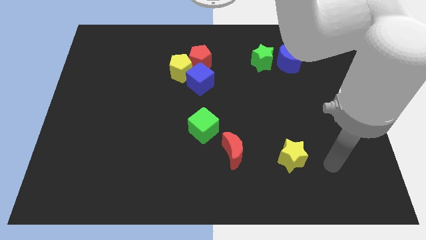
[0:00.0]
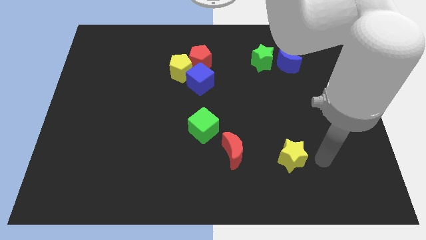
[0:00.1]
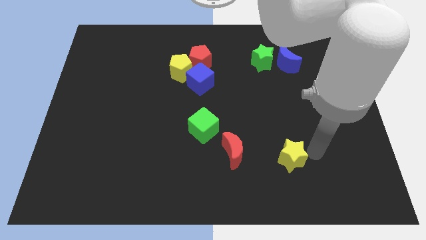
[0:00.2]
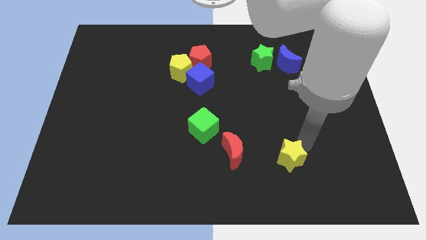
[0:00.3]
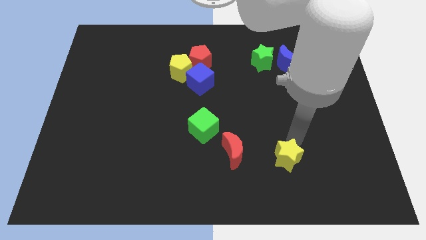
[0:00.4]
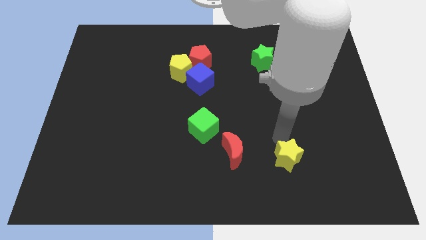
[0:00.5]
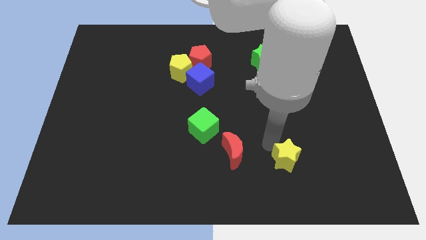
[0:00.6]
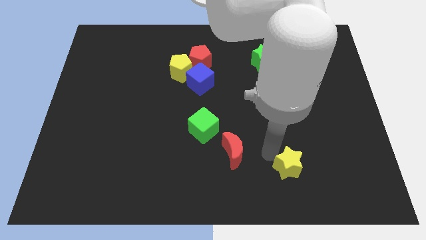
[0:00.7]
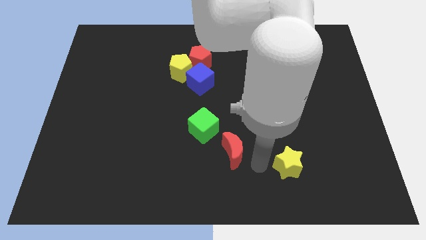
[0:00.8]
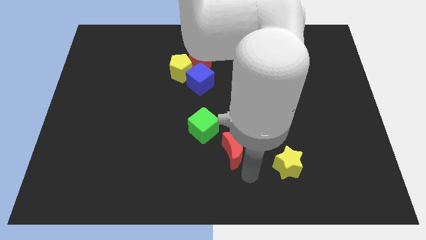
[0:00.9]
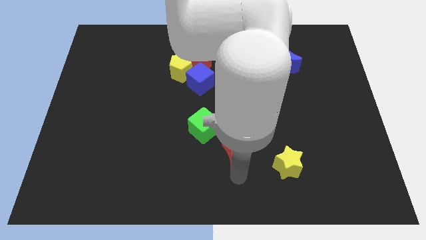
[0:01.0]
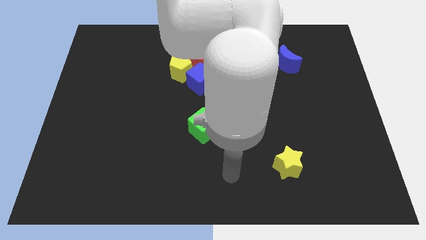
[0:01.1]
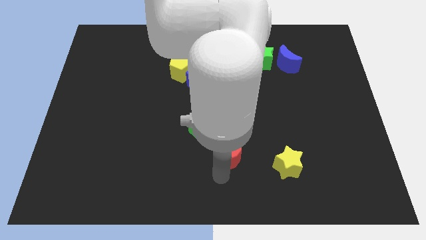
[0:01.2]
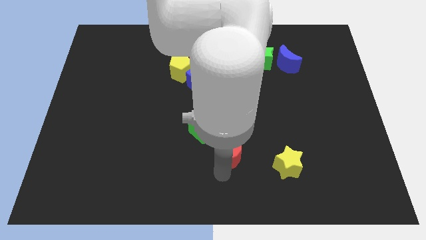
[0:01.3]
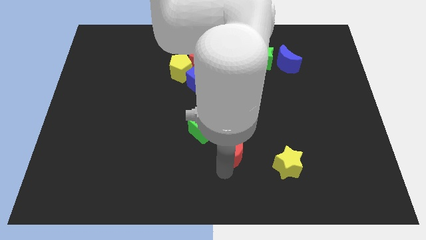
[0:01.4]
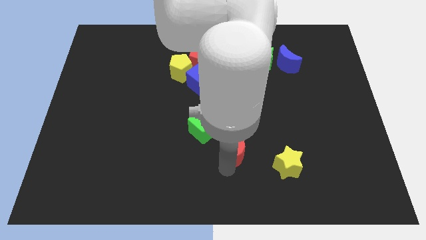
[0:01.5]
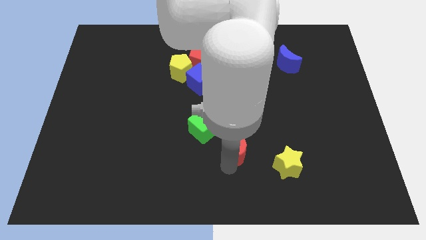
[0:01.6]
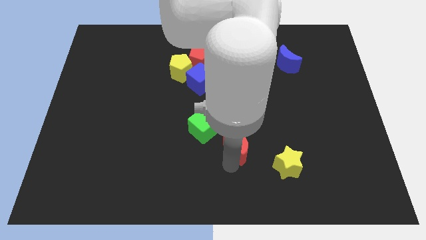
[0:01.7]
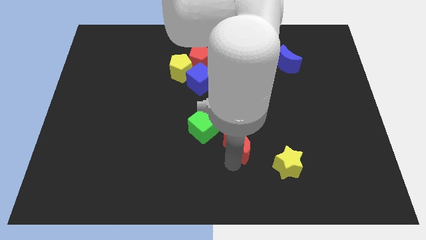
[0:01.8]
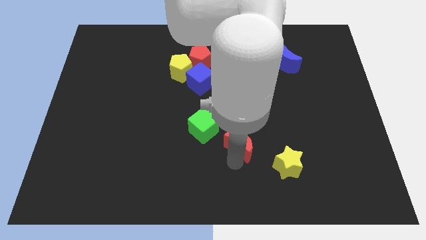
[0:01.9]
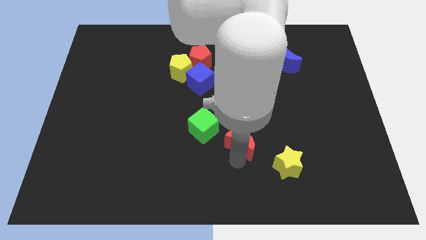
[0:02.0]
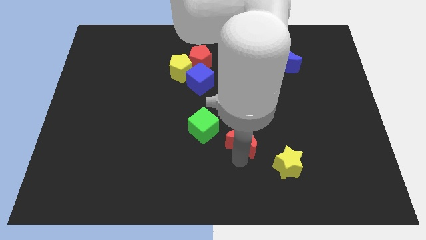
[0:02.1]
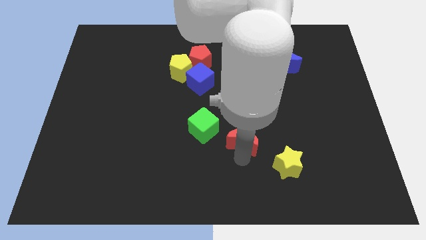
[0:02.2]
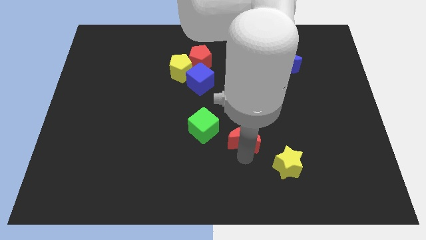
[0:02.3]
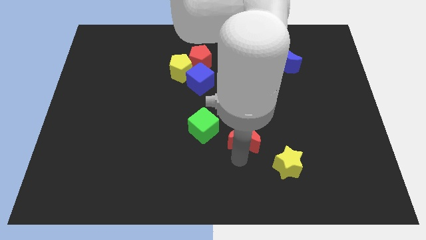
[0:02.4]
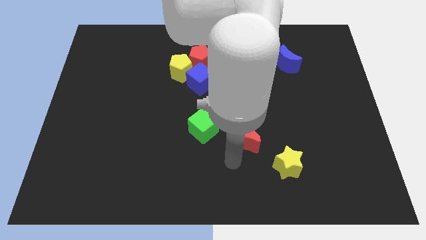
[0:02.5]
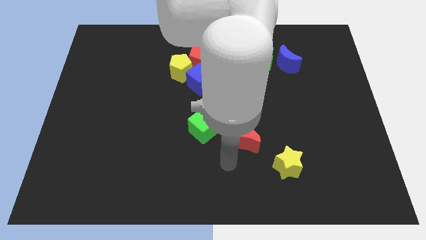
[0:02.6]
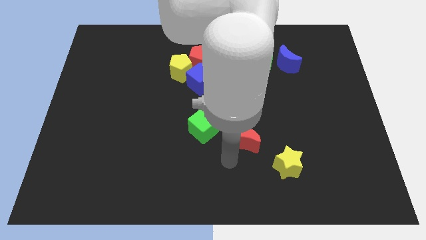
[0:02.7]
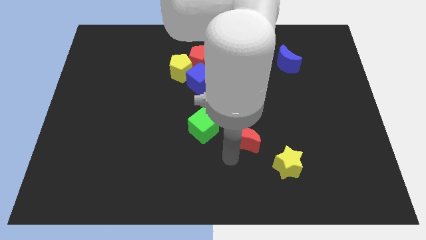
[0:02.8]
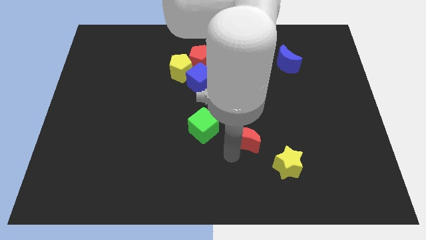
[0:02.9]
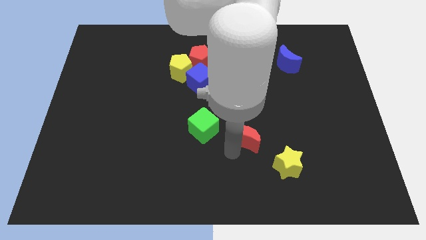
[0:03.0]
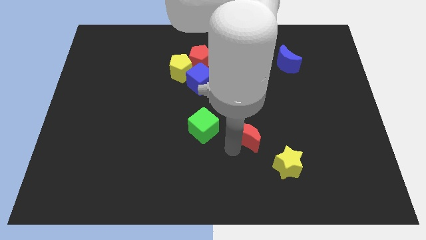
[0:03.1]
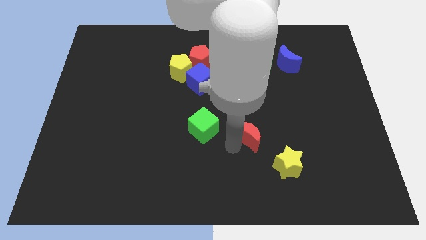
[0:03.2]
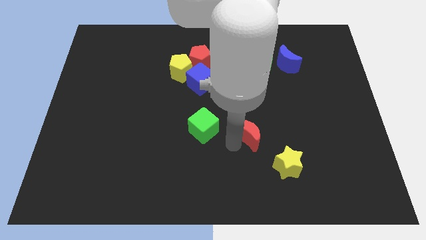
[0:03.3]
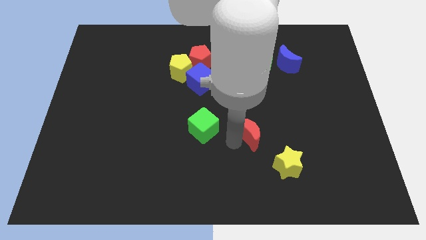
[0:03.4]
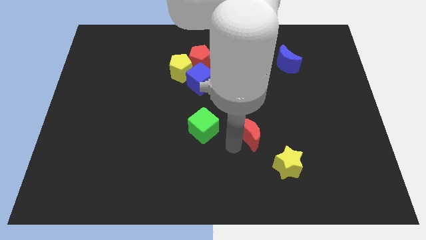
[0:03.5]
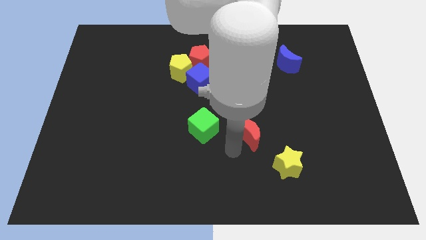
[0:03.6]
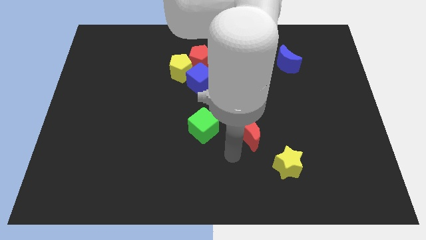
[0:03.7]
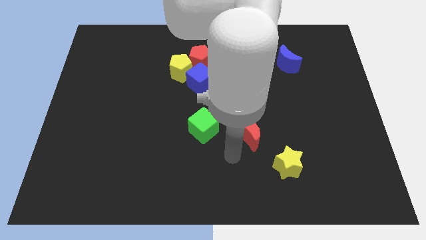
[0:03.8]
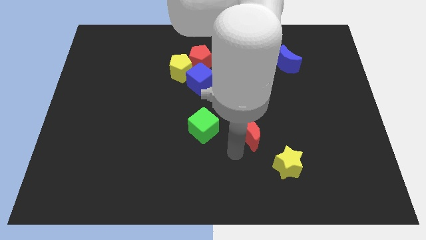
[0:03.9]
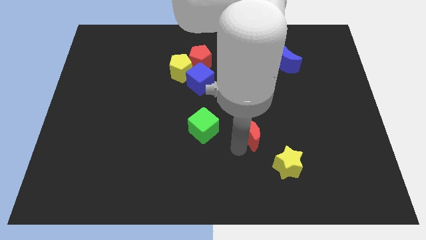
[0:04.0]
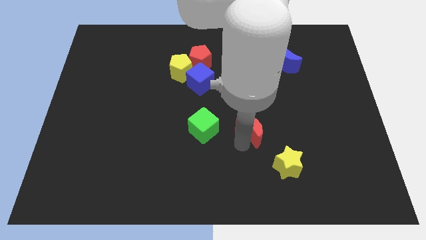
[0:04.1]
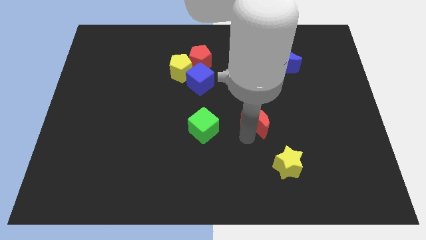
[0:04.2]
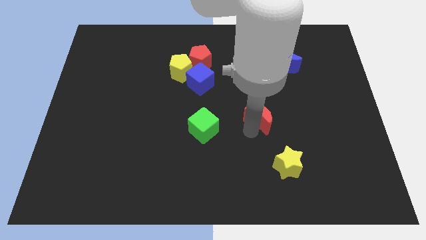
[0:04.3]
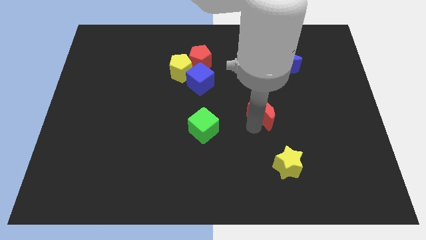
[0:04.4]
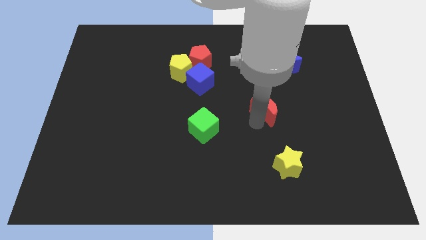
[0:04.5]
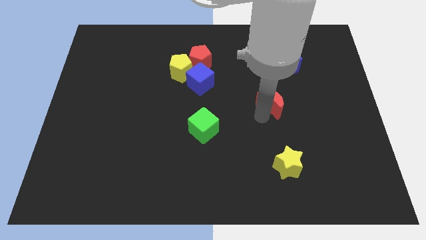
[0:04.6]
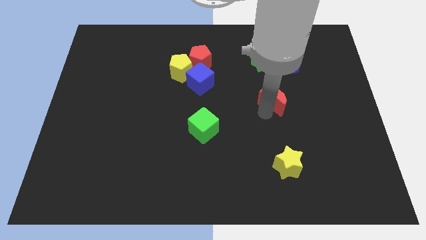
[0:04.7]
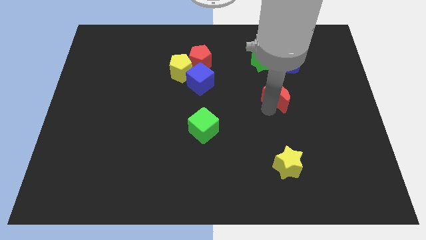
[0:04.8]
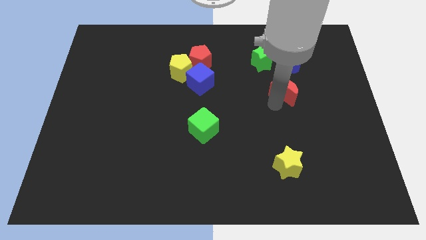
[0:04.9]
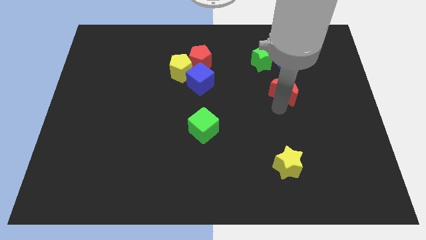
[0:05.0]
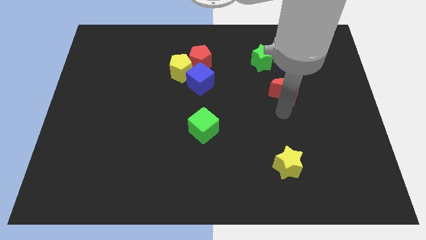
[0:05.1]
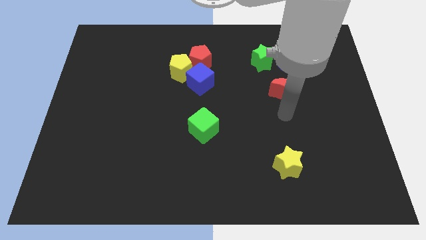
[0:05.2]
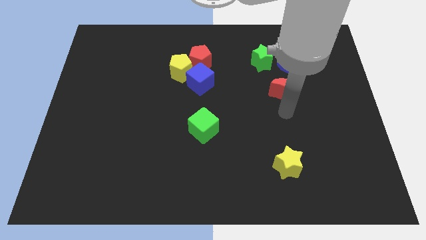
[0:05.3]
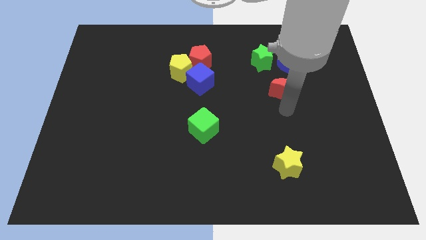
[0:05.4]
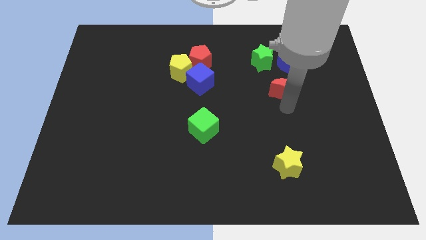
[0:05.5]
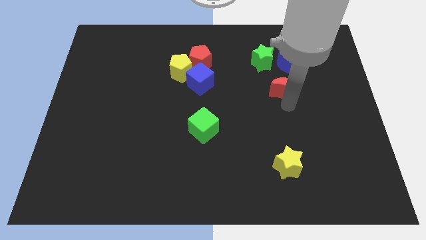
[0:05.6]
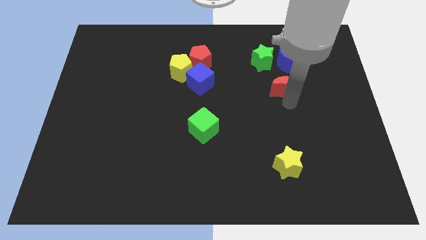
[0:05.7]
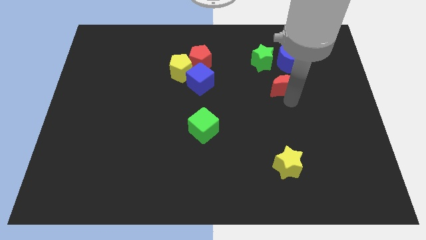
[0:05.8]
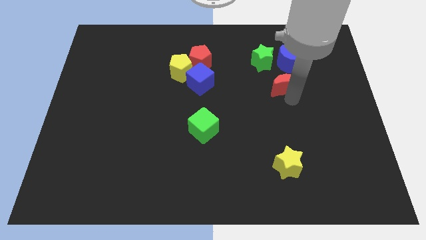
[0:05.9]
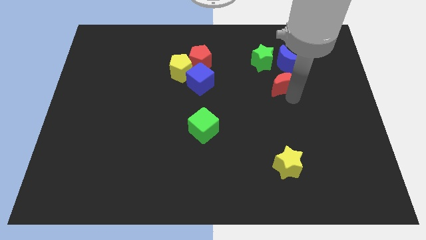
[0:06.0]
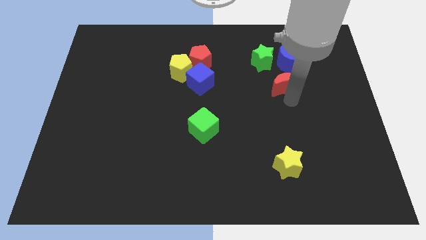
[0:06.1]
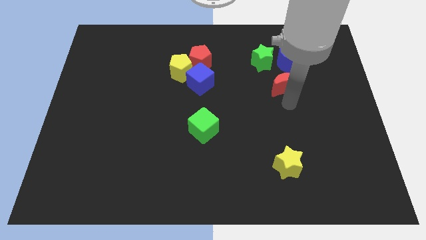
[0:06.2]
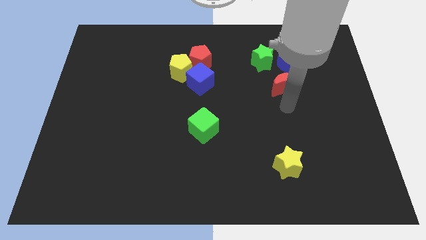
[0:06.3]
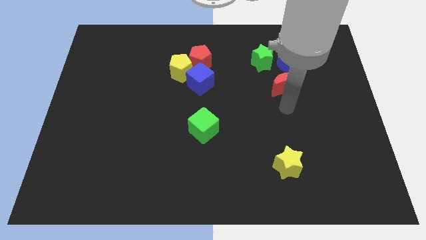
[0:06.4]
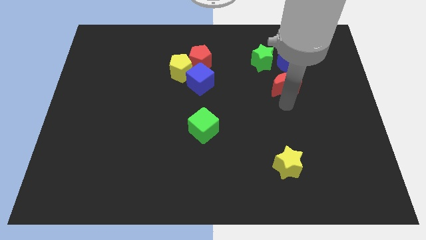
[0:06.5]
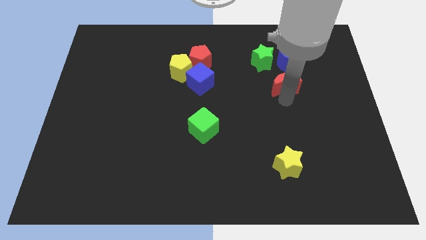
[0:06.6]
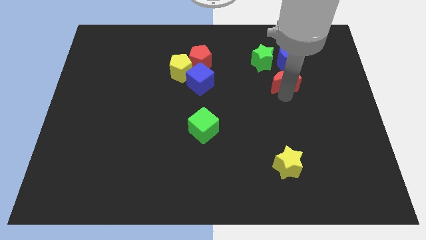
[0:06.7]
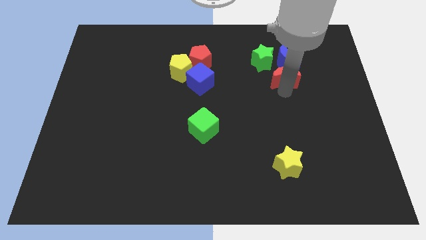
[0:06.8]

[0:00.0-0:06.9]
push the red moon towards the blue moon
